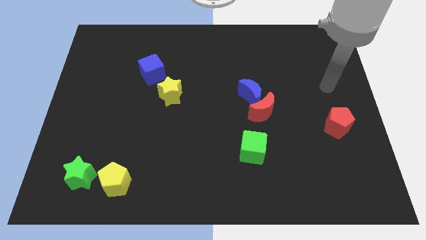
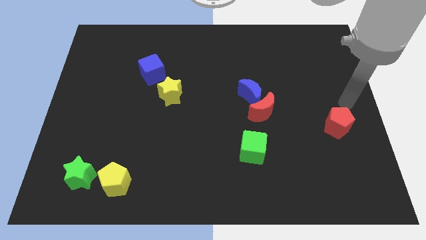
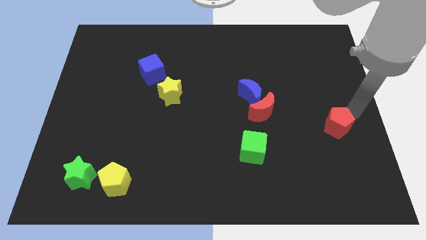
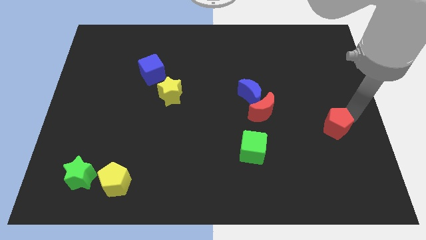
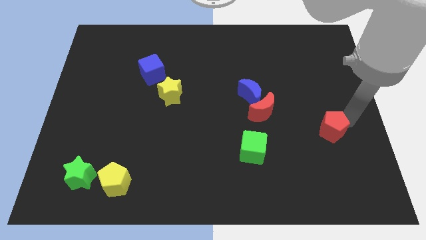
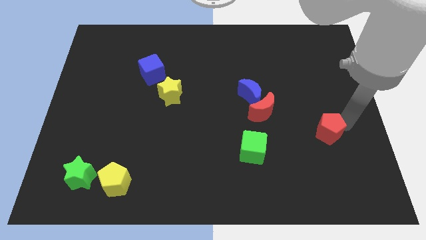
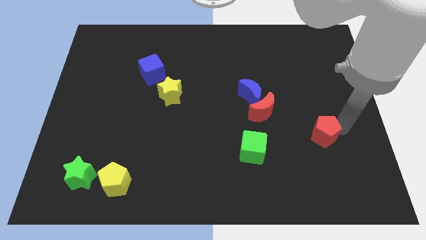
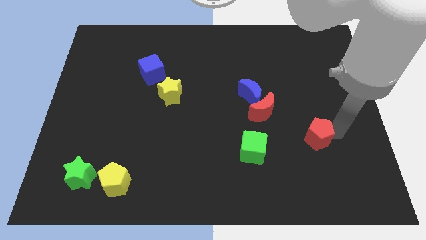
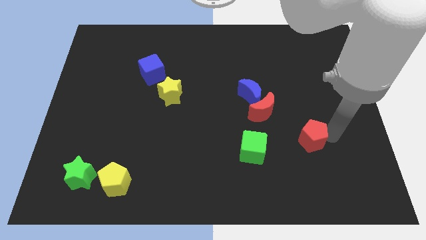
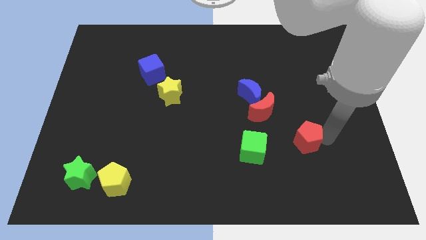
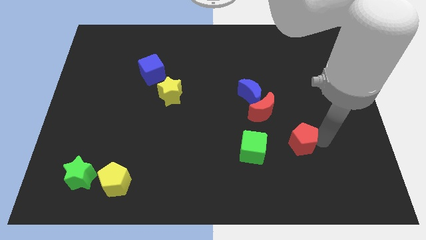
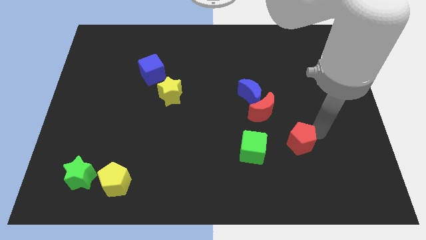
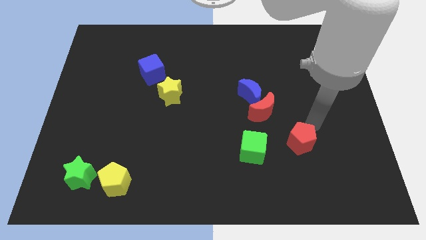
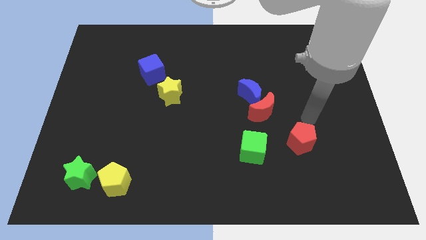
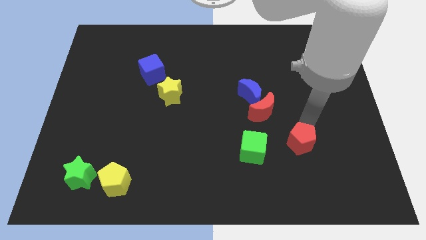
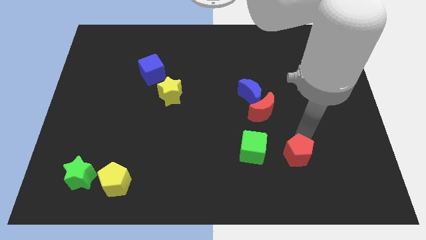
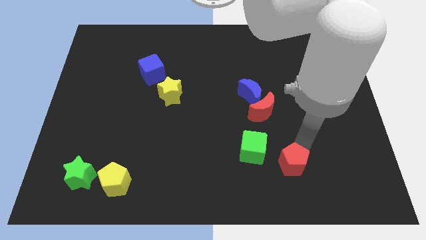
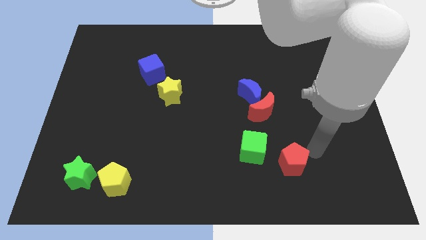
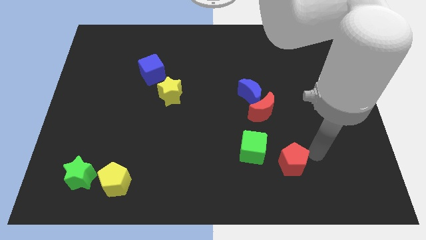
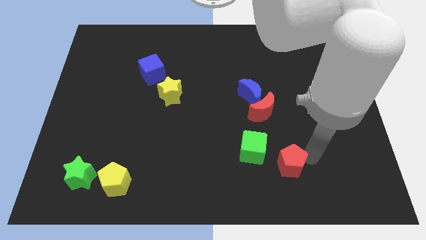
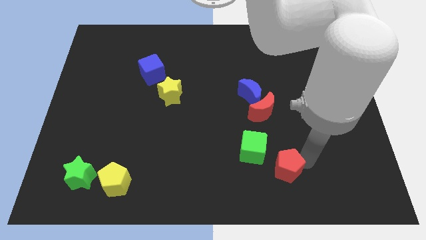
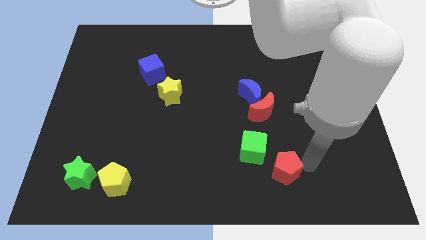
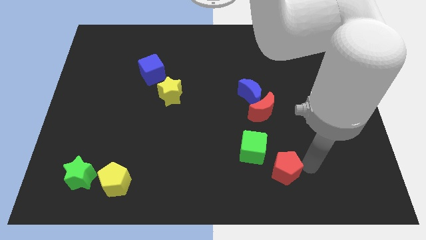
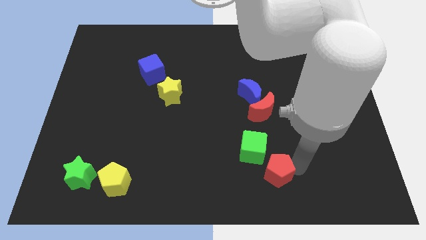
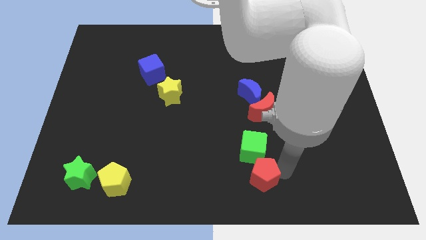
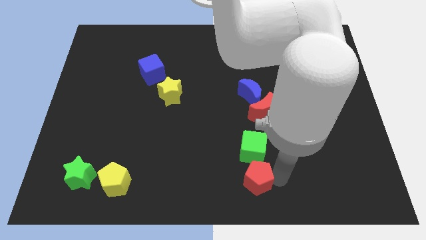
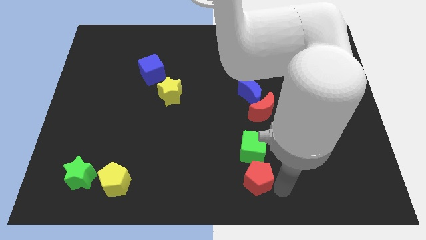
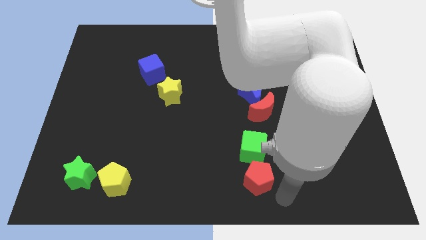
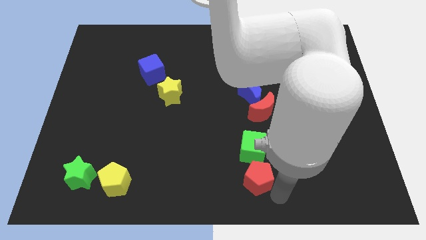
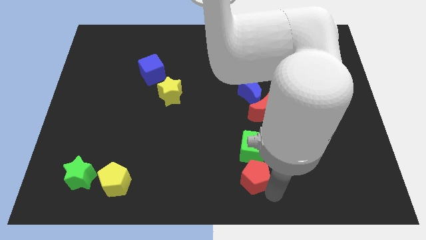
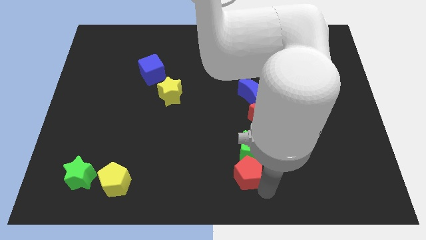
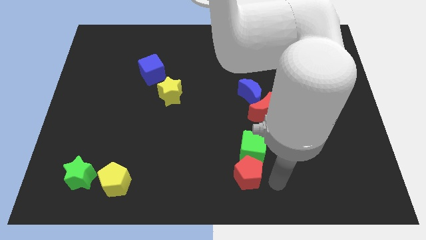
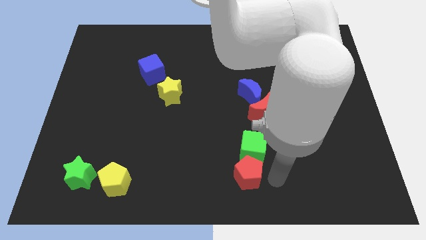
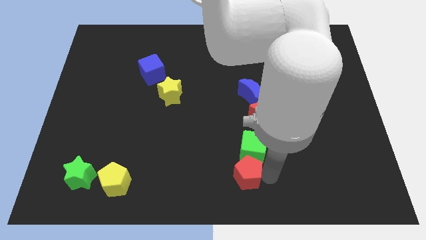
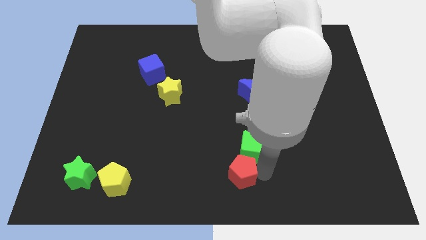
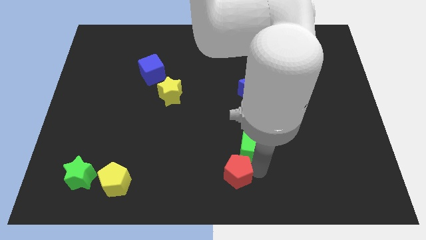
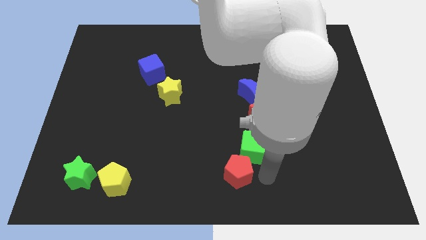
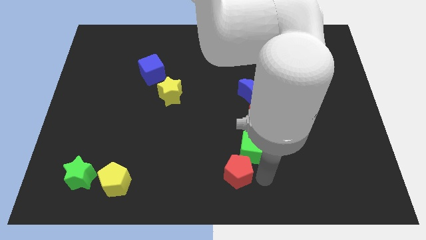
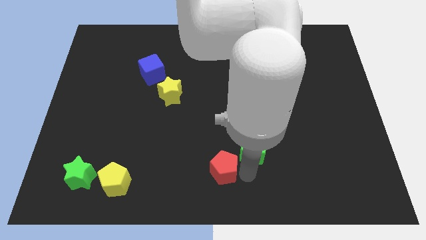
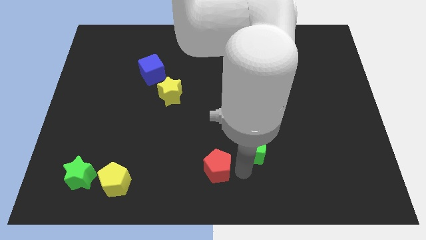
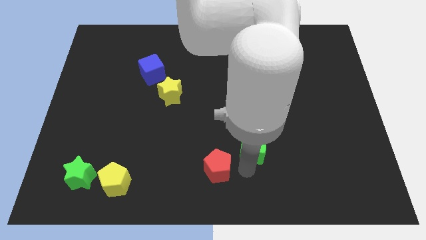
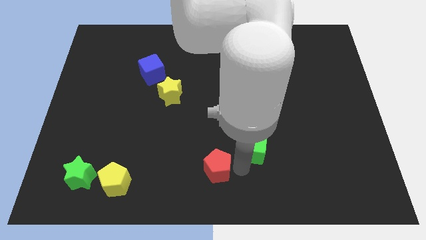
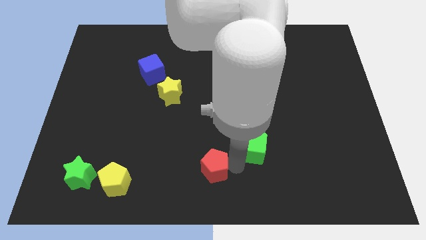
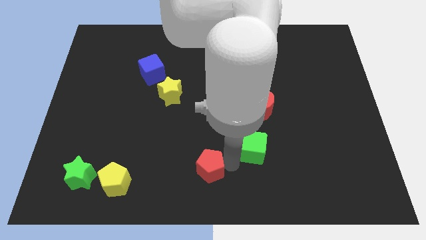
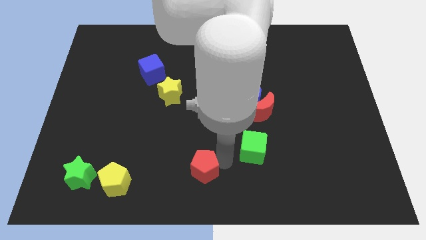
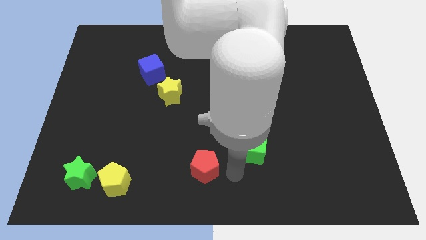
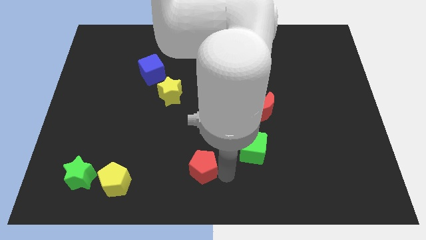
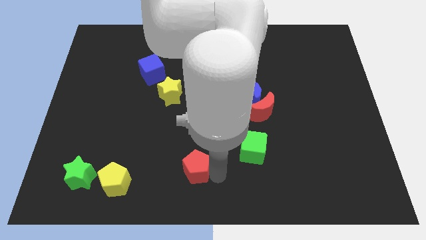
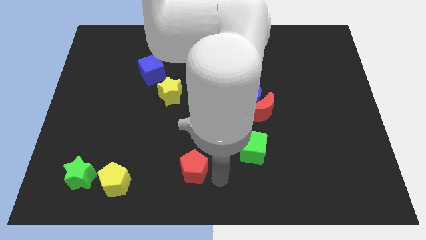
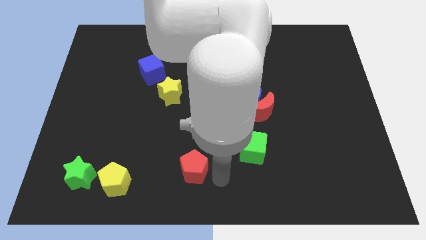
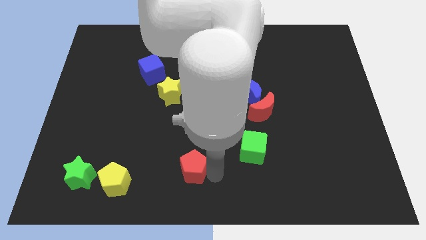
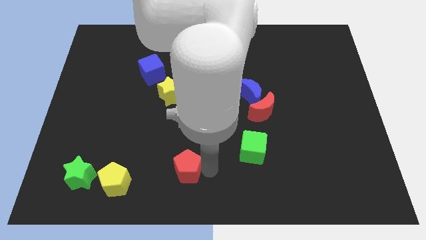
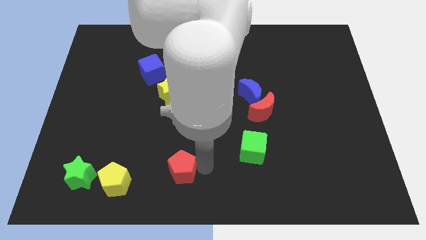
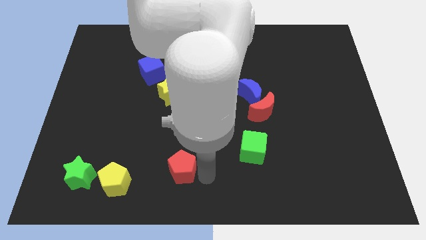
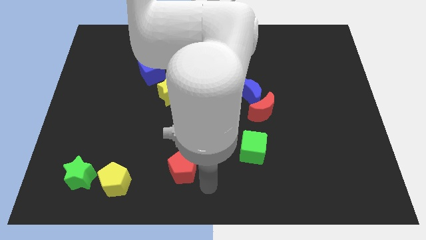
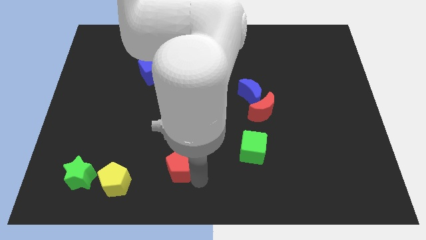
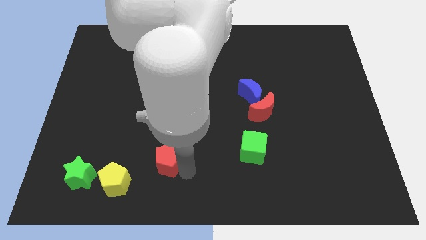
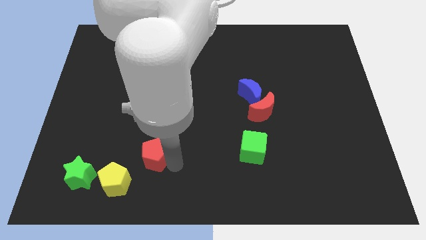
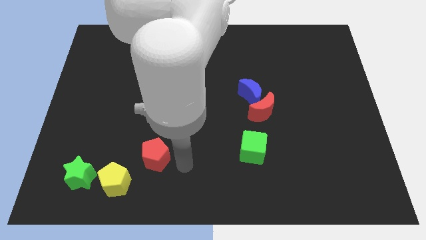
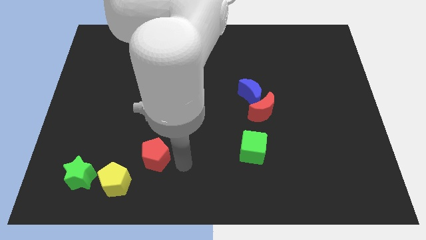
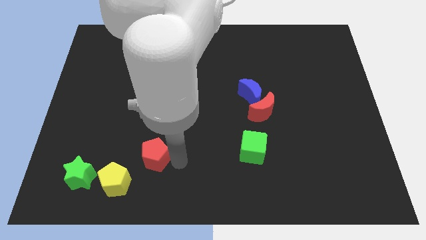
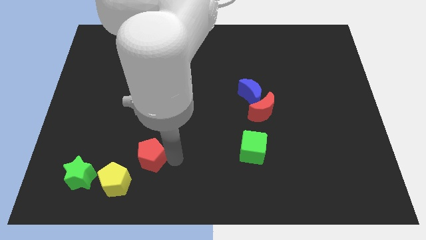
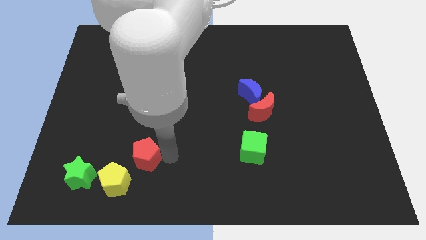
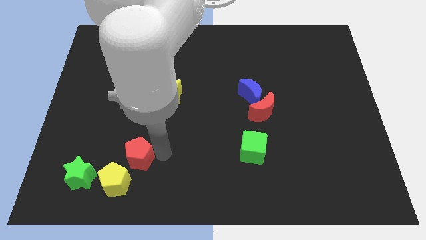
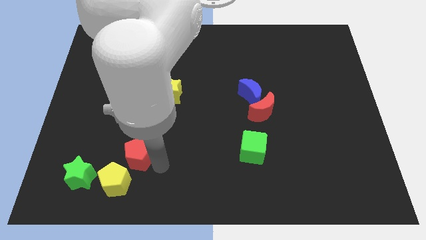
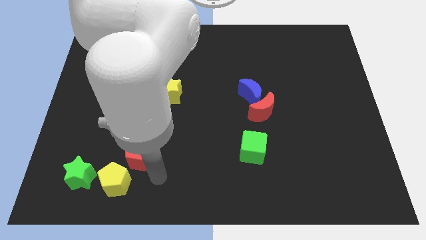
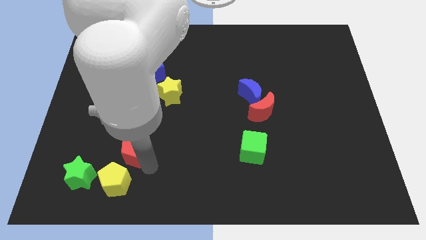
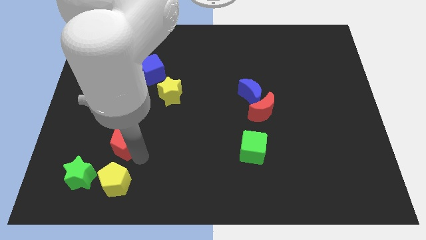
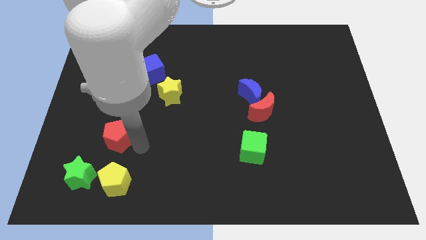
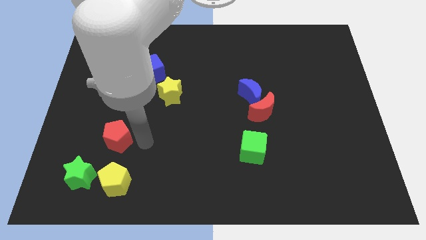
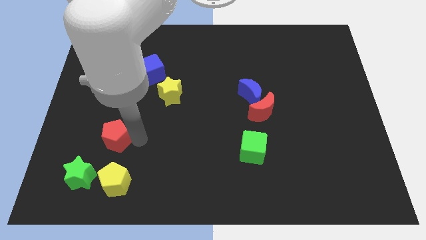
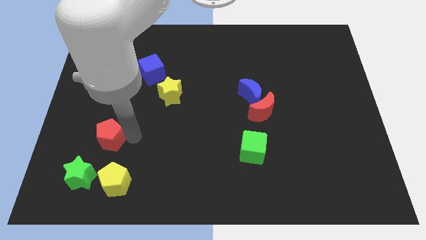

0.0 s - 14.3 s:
move the red pentagon above the green star
